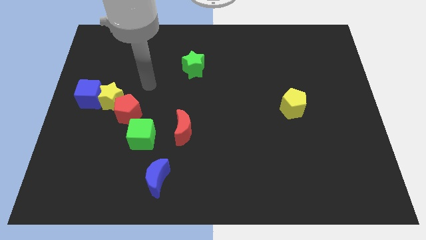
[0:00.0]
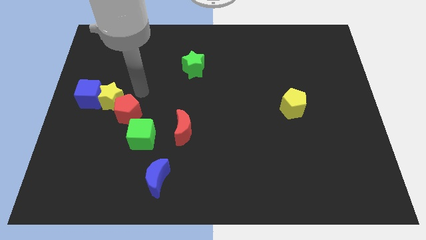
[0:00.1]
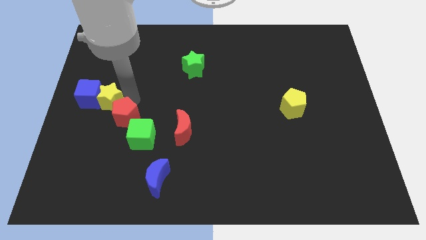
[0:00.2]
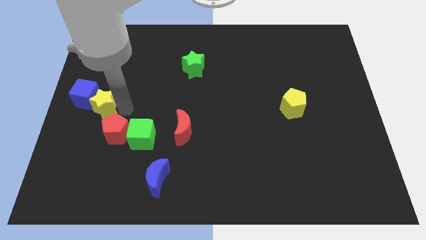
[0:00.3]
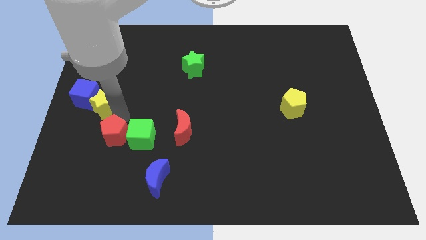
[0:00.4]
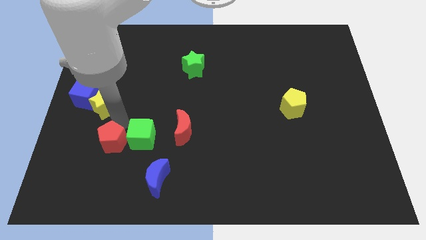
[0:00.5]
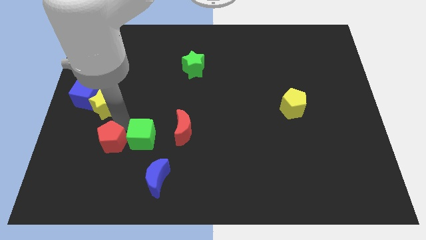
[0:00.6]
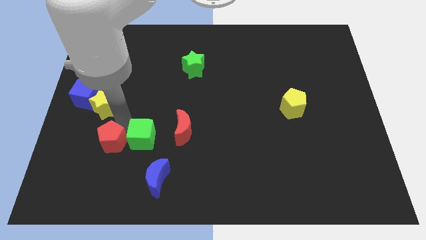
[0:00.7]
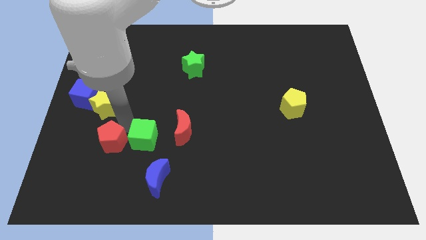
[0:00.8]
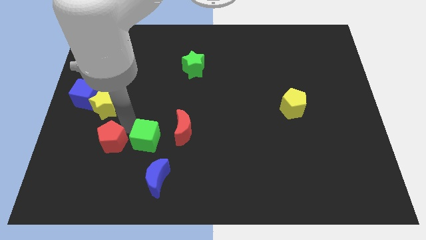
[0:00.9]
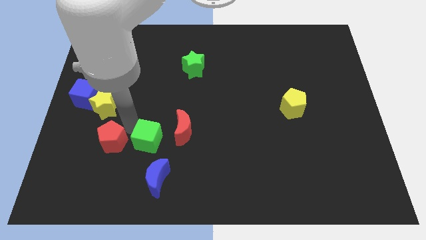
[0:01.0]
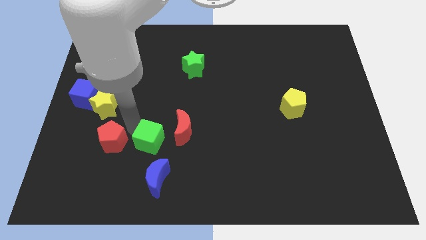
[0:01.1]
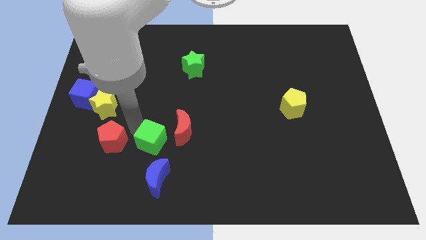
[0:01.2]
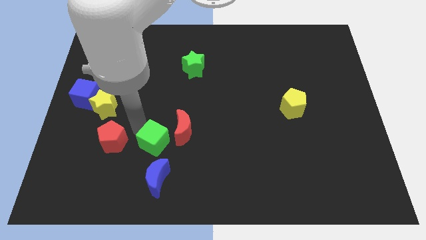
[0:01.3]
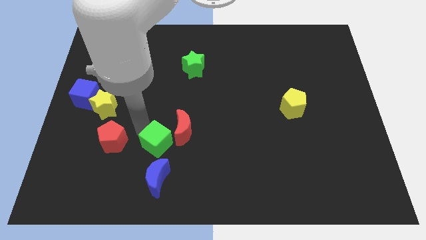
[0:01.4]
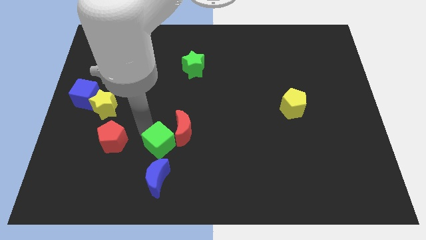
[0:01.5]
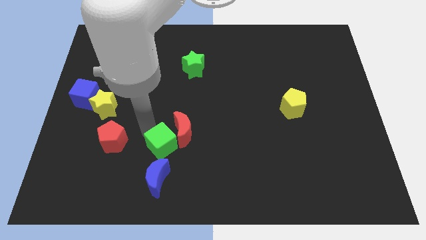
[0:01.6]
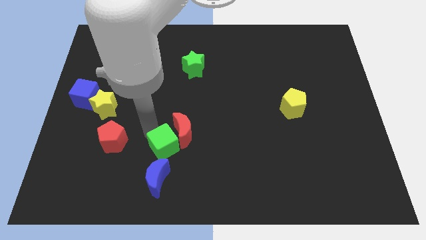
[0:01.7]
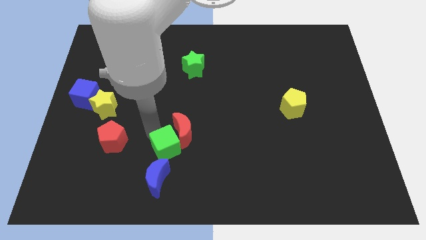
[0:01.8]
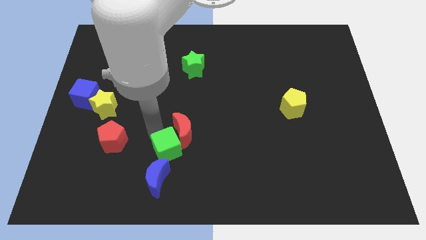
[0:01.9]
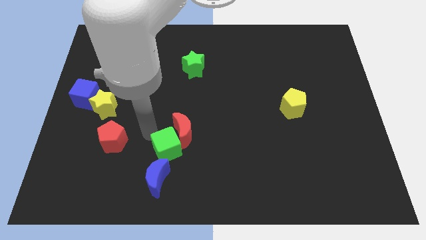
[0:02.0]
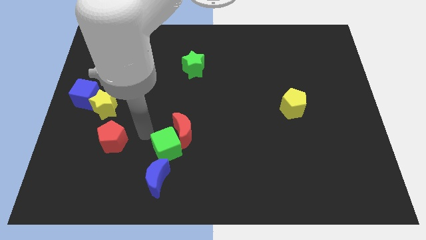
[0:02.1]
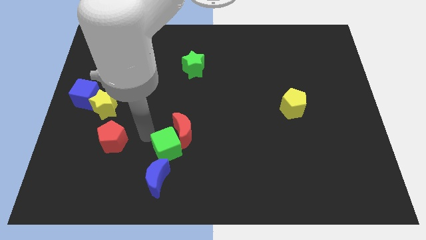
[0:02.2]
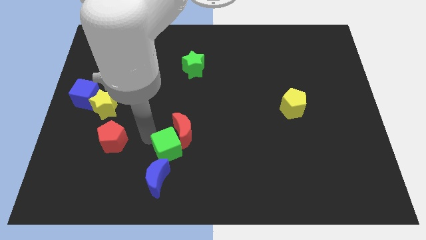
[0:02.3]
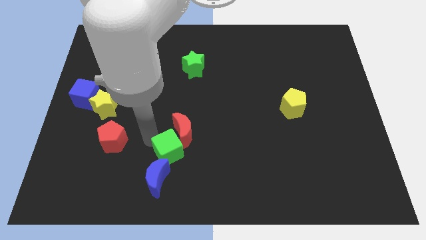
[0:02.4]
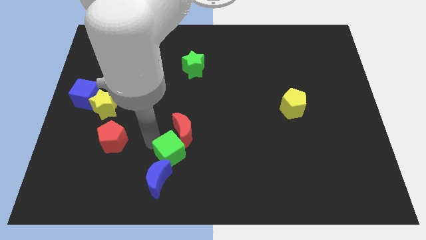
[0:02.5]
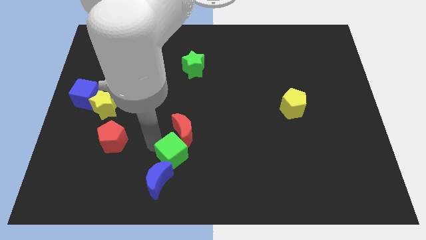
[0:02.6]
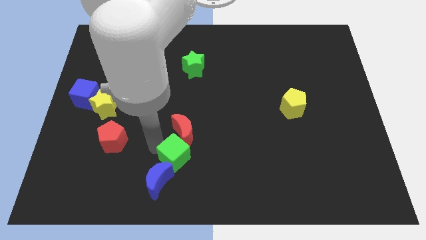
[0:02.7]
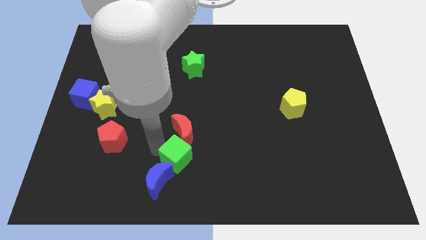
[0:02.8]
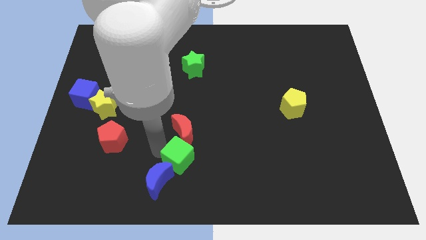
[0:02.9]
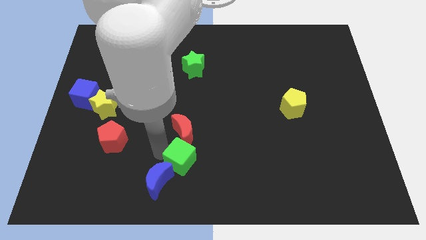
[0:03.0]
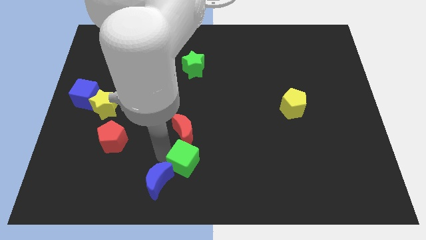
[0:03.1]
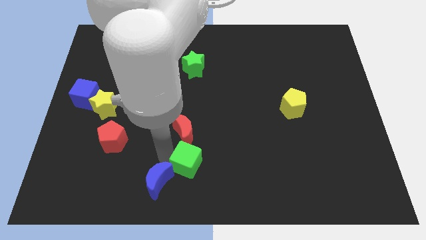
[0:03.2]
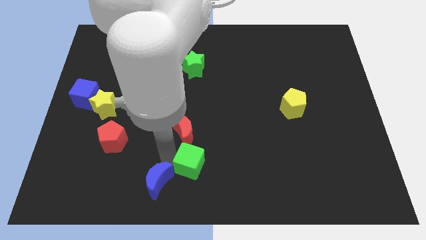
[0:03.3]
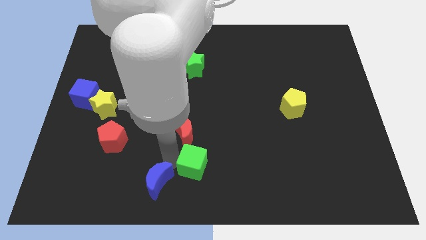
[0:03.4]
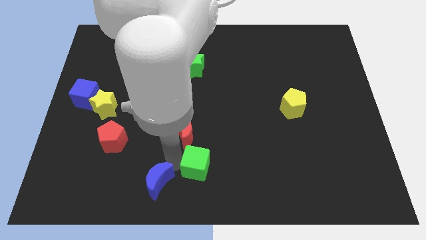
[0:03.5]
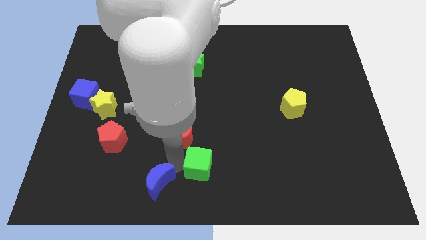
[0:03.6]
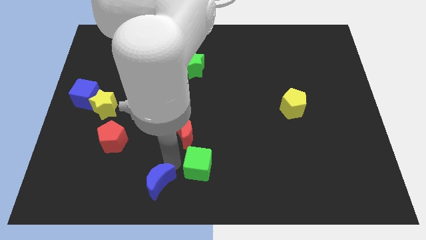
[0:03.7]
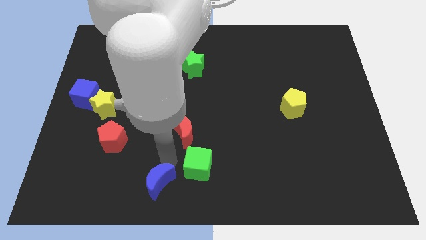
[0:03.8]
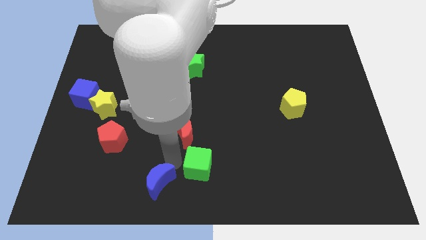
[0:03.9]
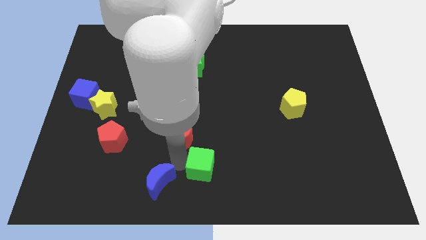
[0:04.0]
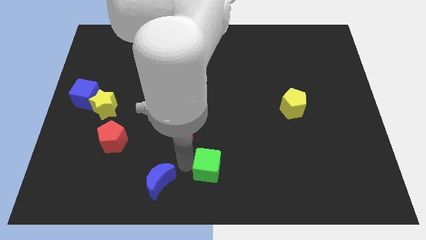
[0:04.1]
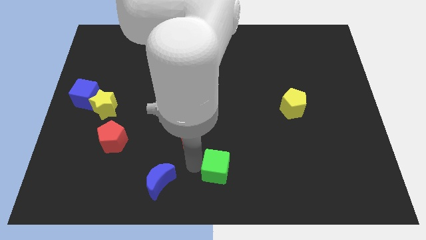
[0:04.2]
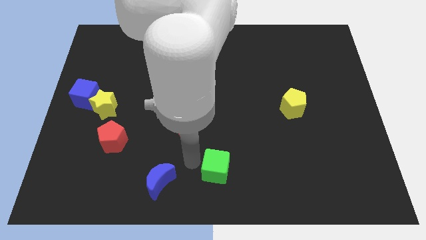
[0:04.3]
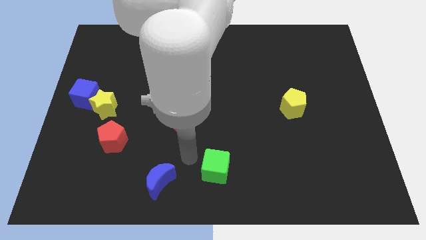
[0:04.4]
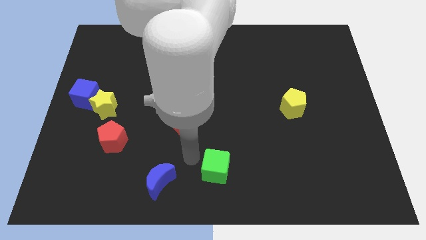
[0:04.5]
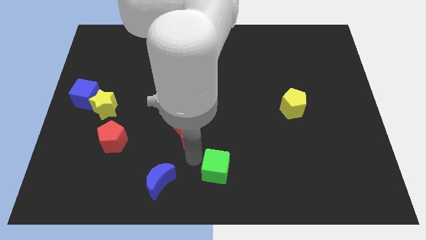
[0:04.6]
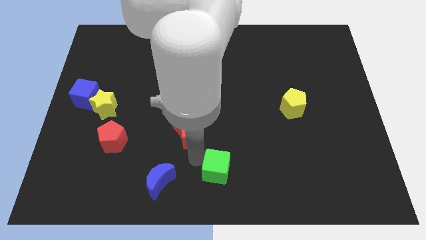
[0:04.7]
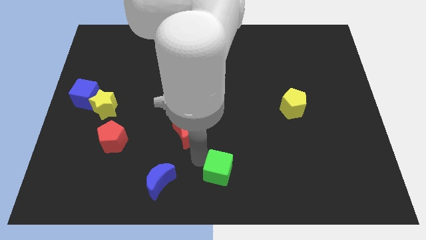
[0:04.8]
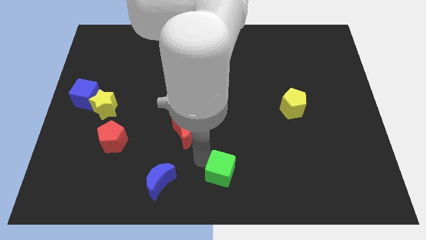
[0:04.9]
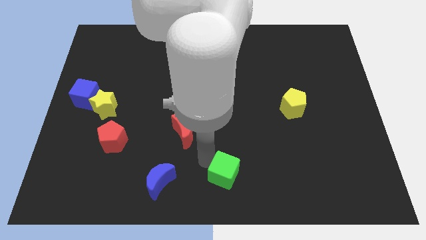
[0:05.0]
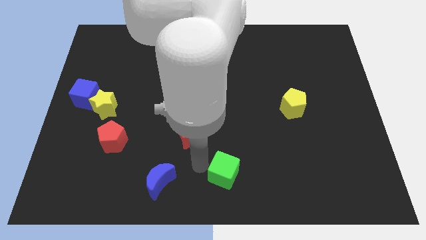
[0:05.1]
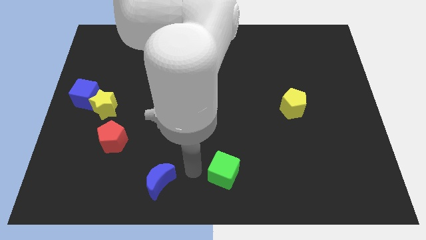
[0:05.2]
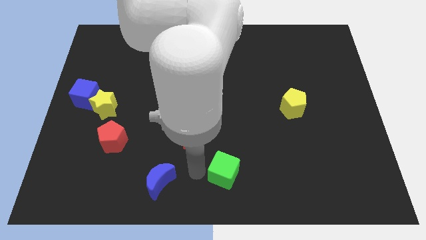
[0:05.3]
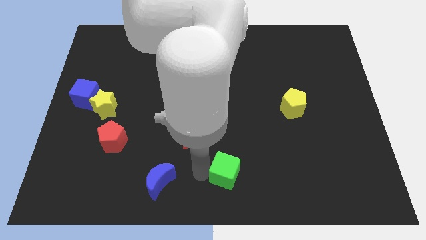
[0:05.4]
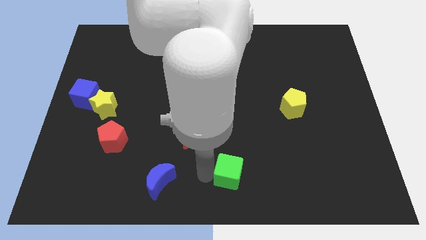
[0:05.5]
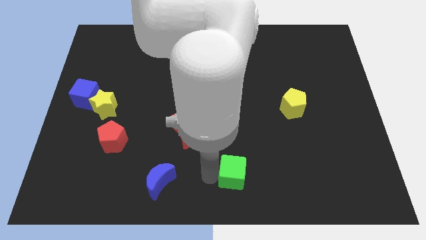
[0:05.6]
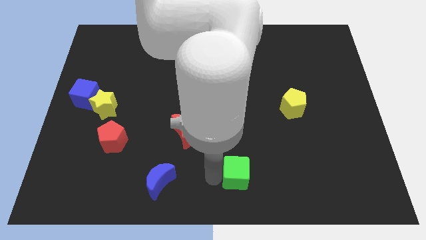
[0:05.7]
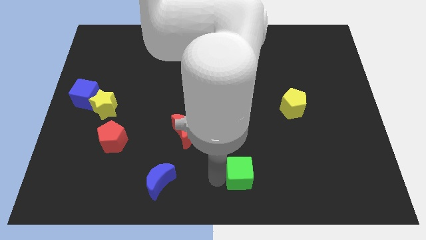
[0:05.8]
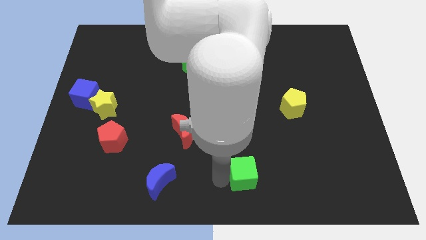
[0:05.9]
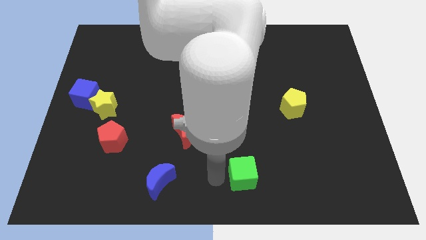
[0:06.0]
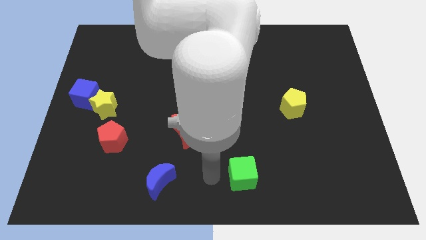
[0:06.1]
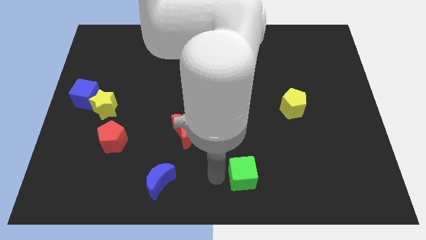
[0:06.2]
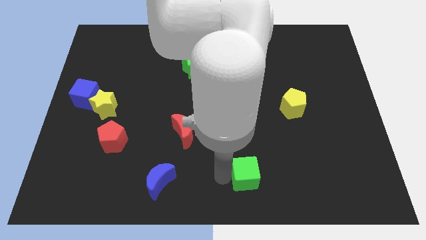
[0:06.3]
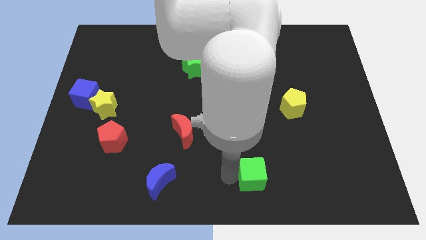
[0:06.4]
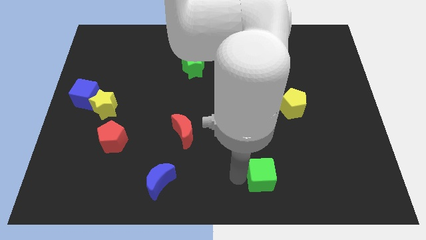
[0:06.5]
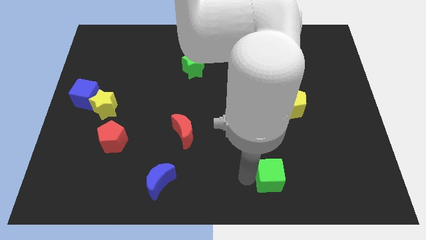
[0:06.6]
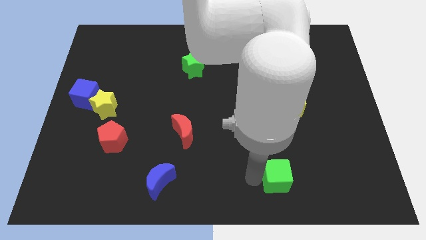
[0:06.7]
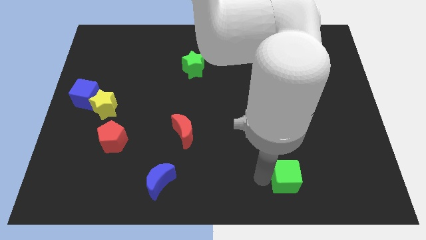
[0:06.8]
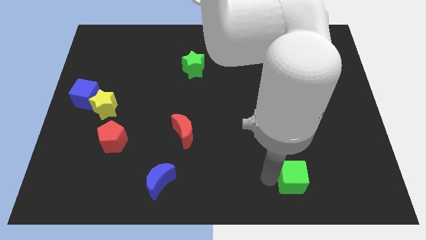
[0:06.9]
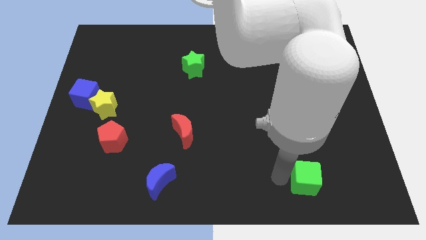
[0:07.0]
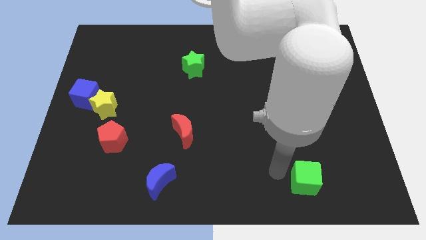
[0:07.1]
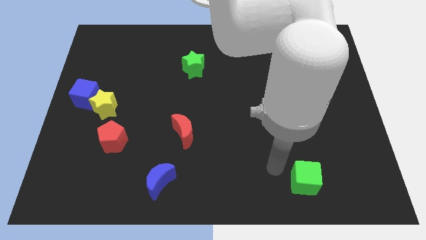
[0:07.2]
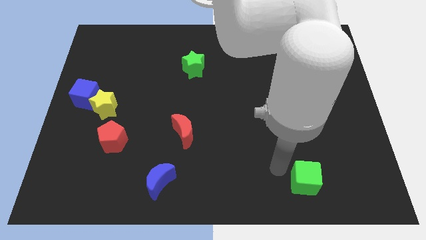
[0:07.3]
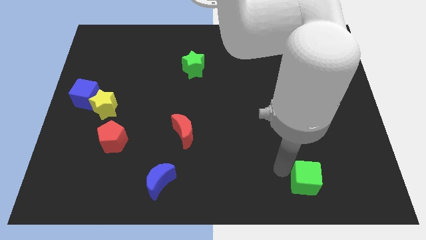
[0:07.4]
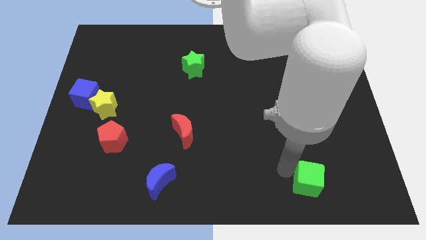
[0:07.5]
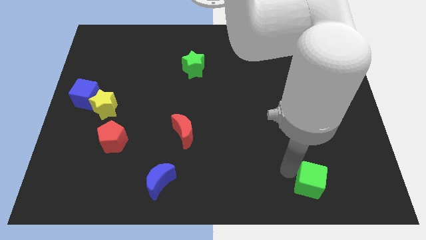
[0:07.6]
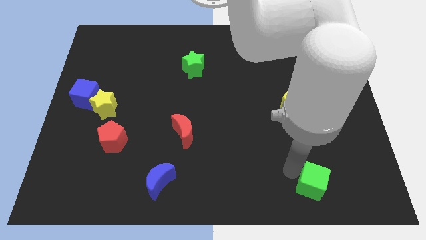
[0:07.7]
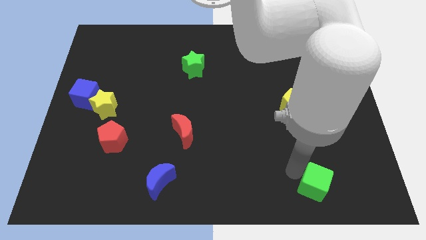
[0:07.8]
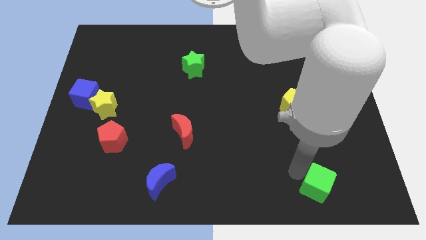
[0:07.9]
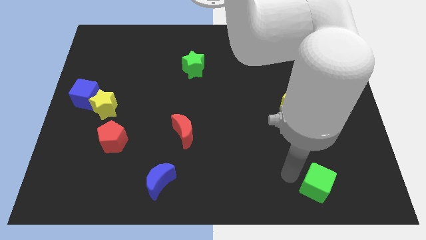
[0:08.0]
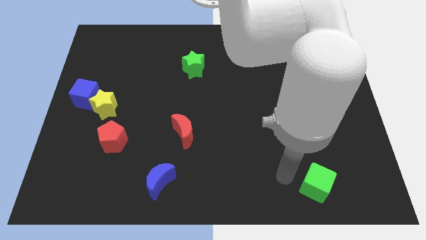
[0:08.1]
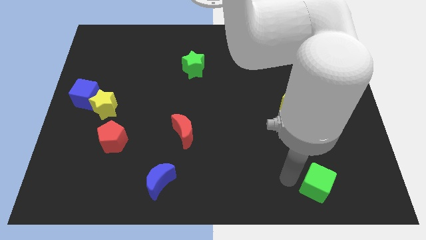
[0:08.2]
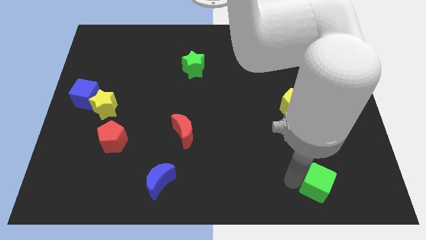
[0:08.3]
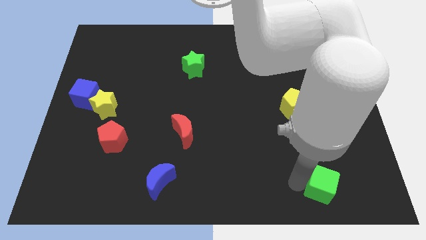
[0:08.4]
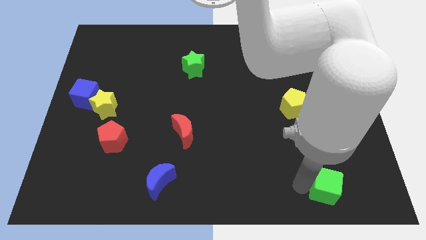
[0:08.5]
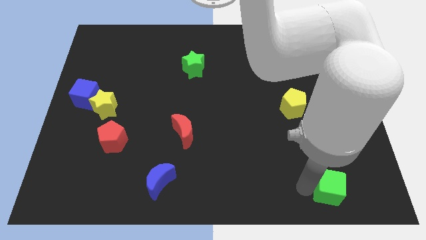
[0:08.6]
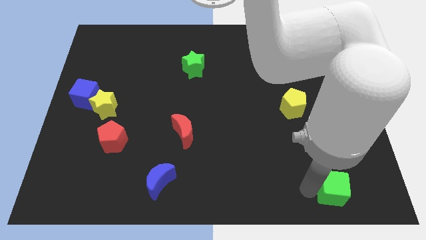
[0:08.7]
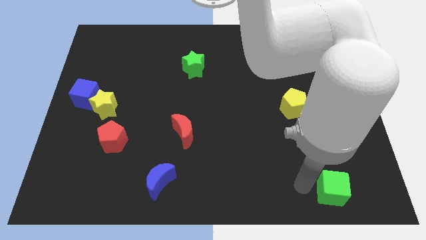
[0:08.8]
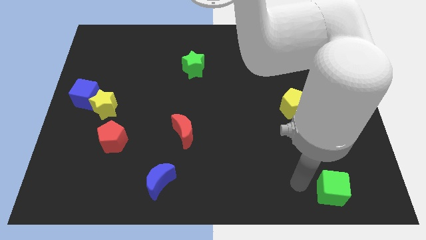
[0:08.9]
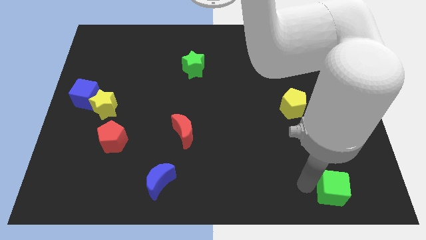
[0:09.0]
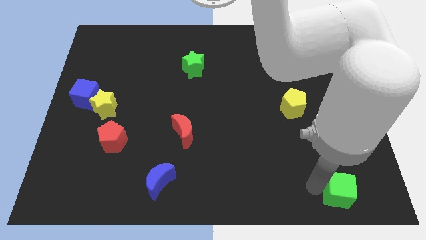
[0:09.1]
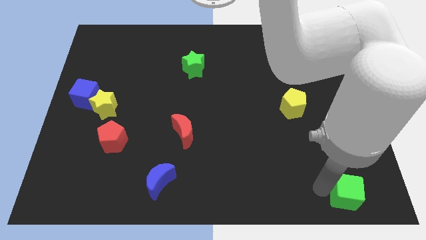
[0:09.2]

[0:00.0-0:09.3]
push the green cube to the bottom right
